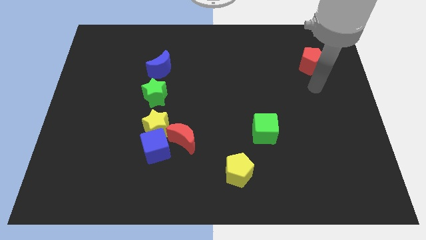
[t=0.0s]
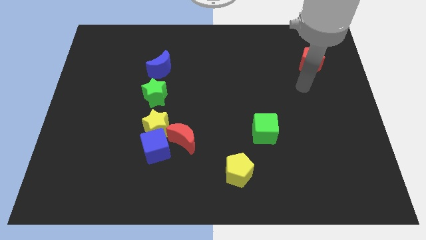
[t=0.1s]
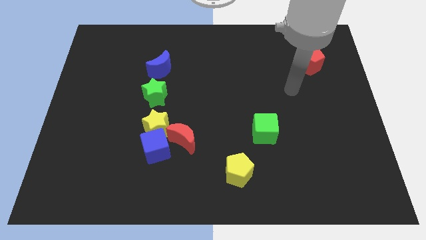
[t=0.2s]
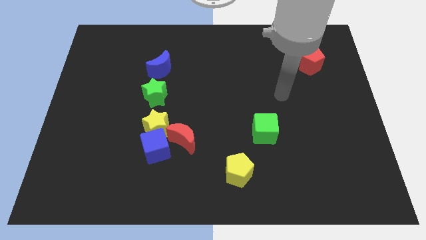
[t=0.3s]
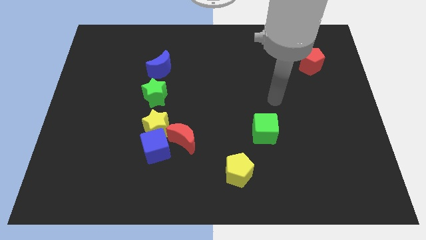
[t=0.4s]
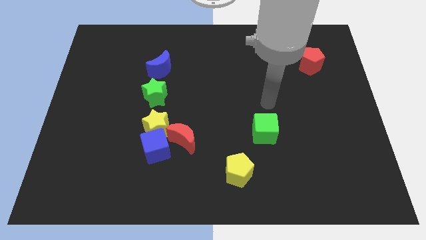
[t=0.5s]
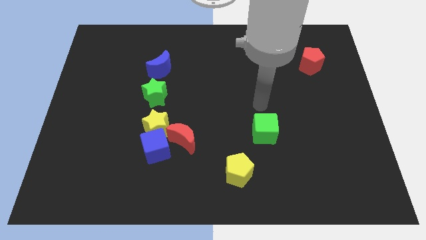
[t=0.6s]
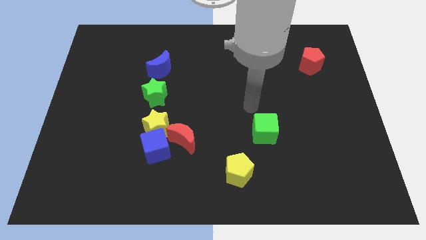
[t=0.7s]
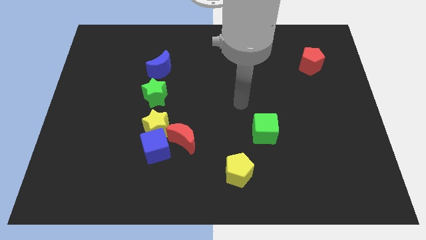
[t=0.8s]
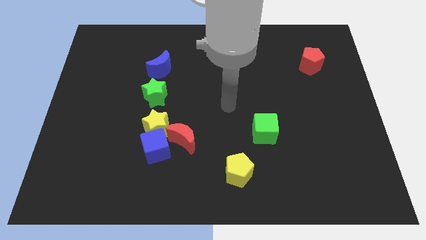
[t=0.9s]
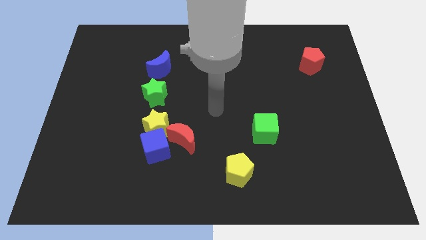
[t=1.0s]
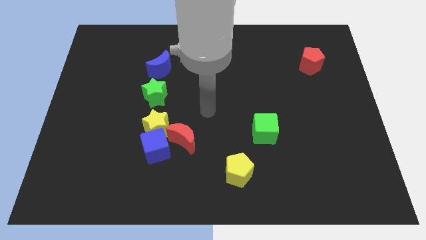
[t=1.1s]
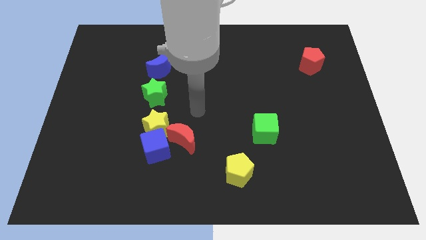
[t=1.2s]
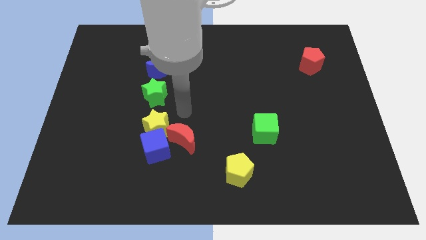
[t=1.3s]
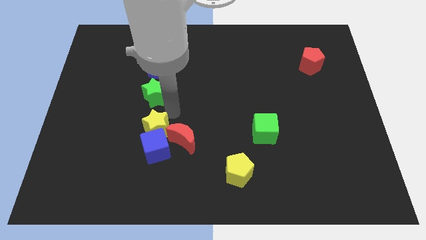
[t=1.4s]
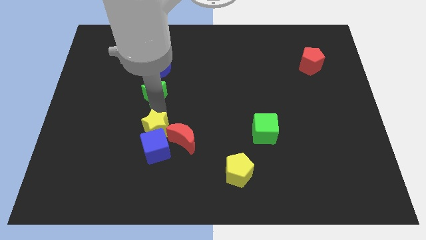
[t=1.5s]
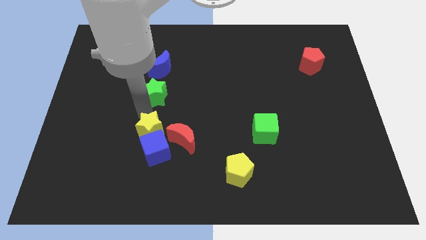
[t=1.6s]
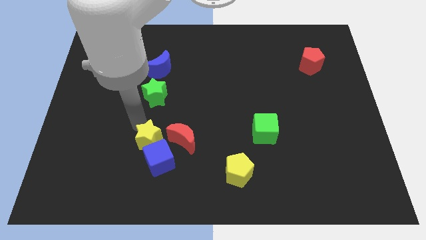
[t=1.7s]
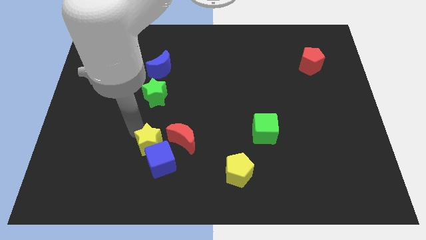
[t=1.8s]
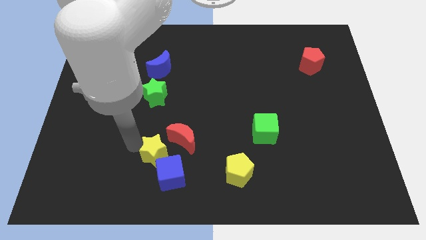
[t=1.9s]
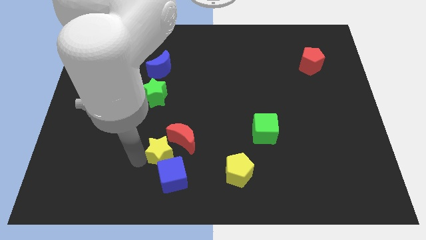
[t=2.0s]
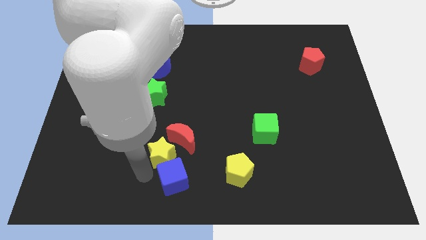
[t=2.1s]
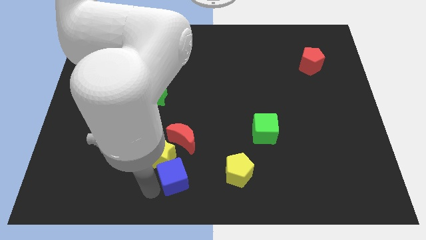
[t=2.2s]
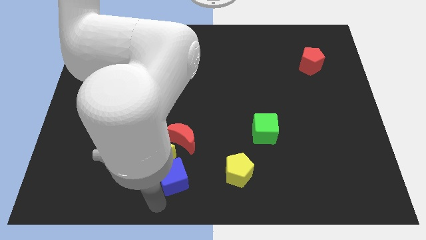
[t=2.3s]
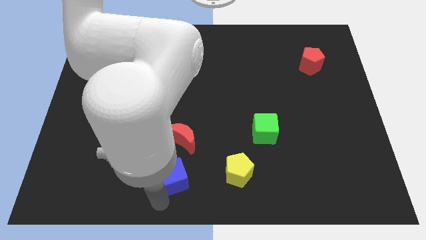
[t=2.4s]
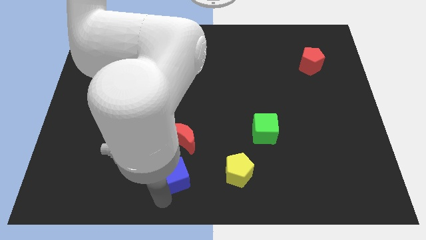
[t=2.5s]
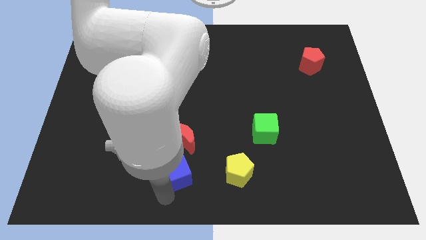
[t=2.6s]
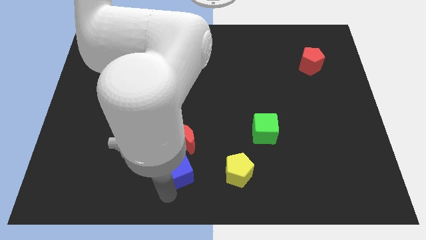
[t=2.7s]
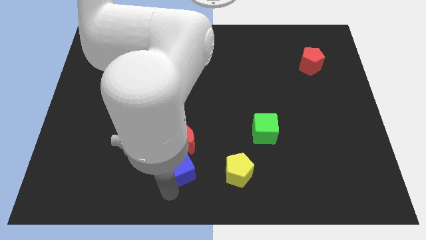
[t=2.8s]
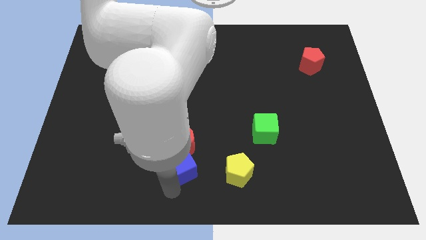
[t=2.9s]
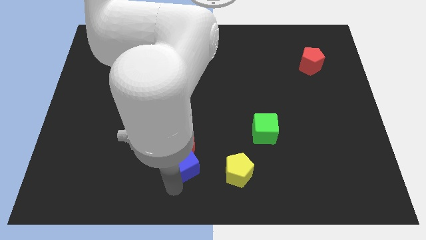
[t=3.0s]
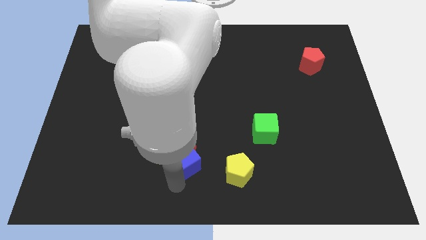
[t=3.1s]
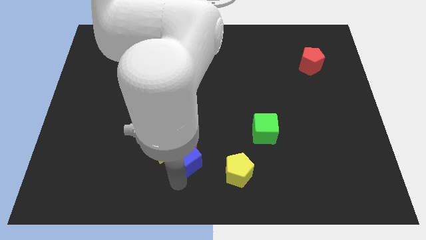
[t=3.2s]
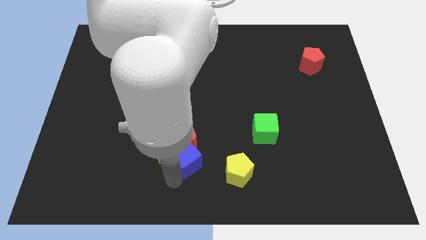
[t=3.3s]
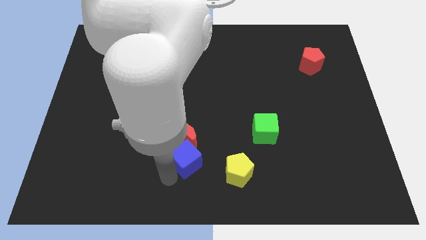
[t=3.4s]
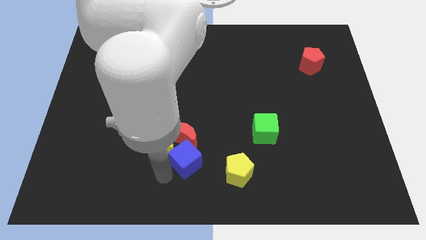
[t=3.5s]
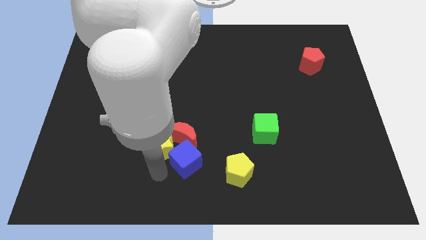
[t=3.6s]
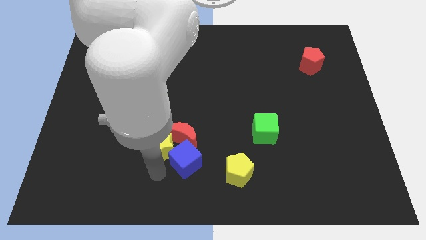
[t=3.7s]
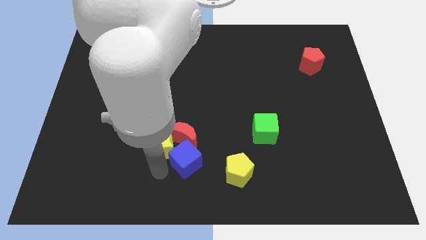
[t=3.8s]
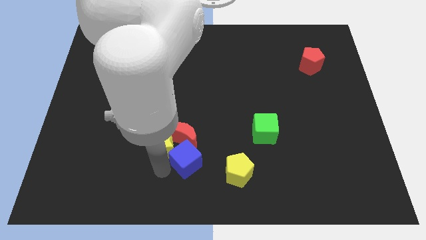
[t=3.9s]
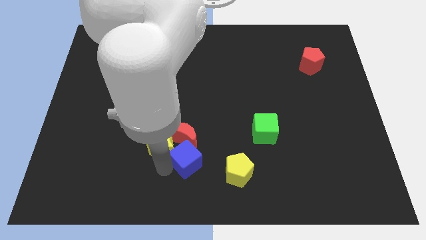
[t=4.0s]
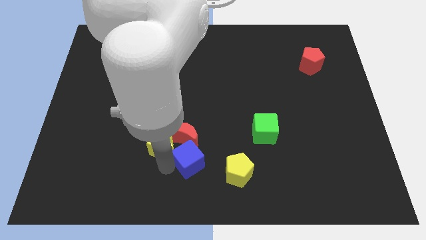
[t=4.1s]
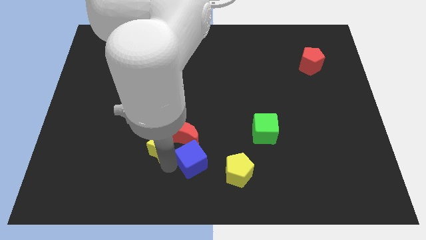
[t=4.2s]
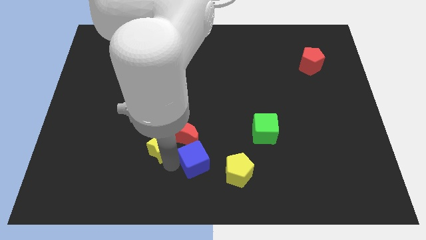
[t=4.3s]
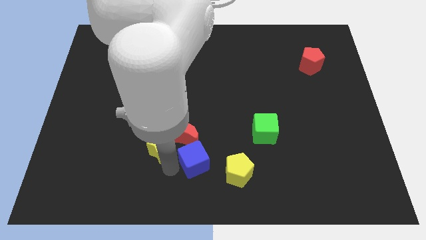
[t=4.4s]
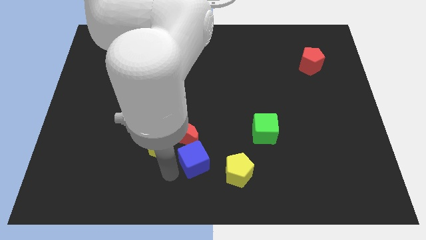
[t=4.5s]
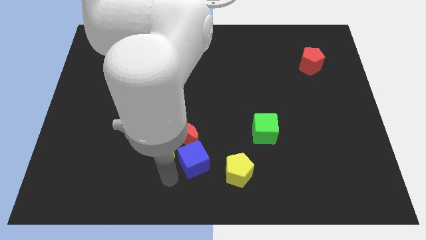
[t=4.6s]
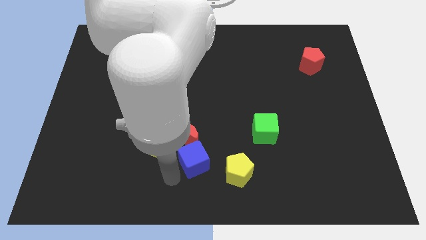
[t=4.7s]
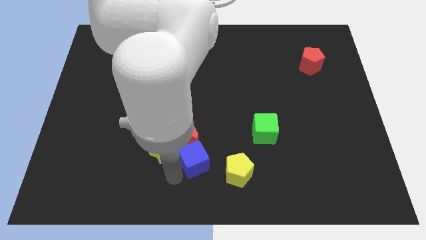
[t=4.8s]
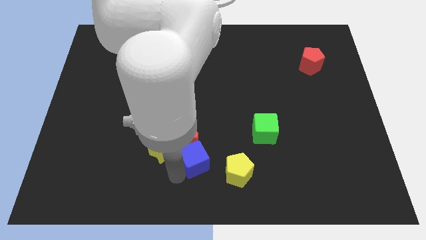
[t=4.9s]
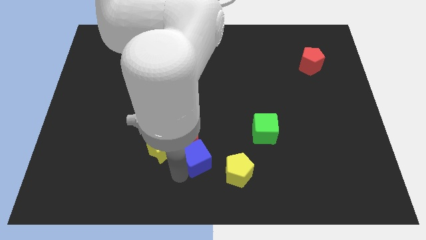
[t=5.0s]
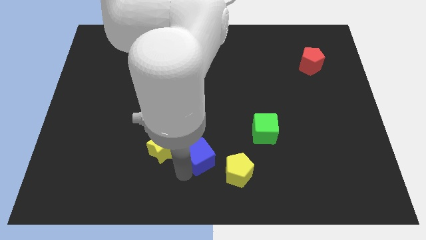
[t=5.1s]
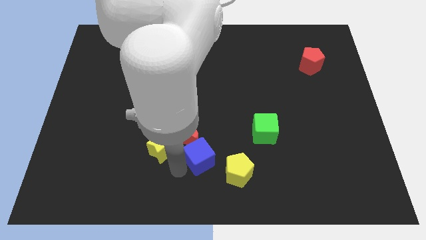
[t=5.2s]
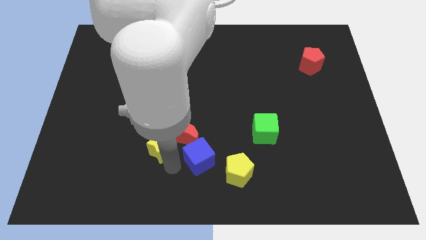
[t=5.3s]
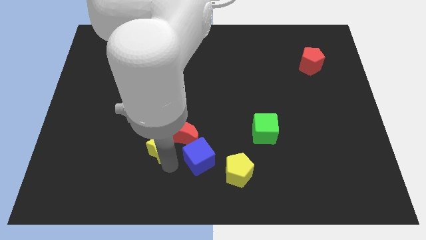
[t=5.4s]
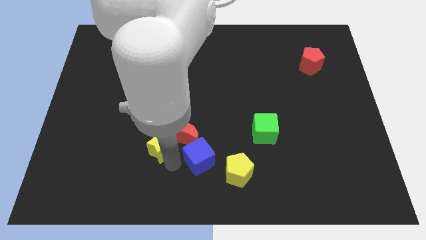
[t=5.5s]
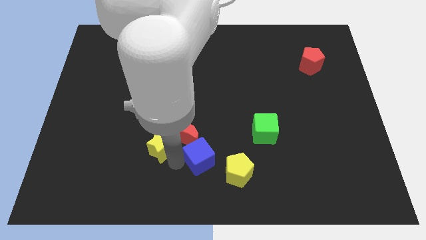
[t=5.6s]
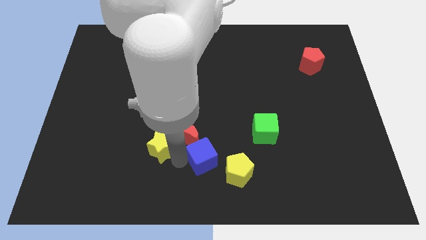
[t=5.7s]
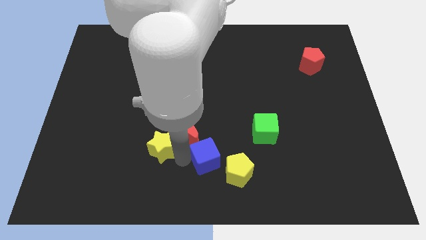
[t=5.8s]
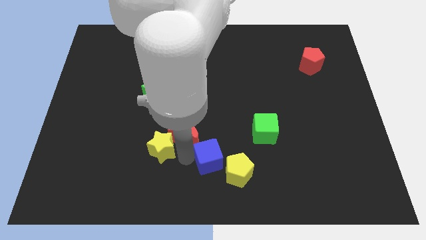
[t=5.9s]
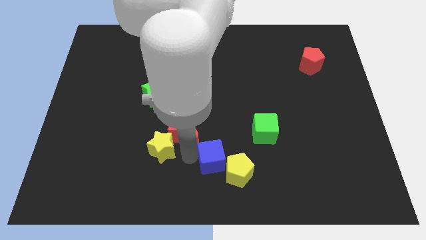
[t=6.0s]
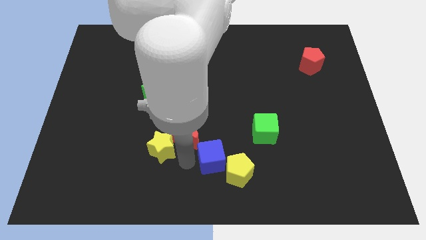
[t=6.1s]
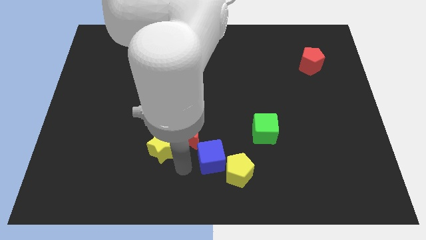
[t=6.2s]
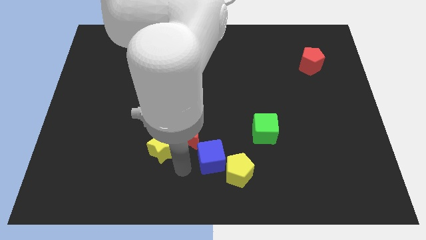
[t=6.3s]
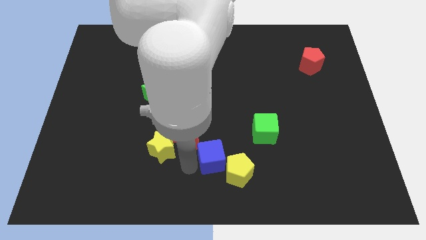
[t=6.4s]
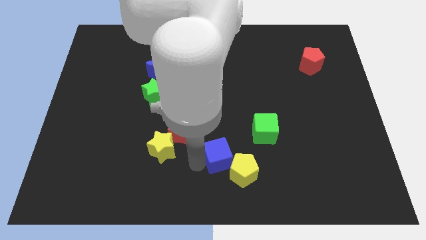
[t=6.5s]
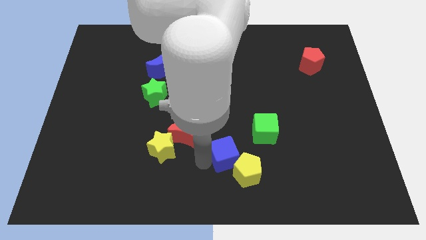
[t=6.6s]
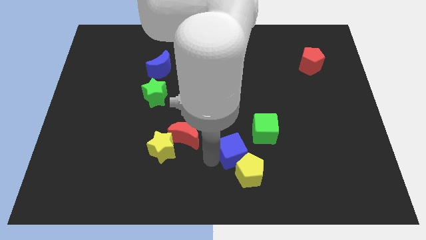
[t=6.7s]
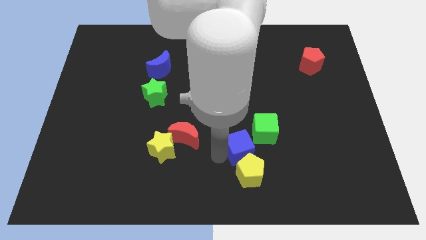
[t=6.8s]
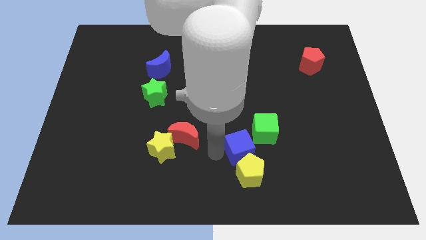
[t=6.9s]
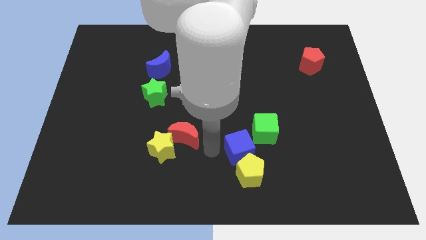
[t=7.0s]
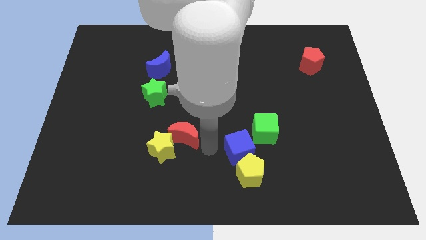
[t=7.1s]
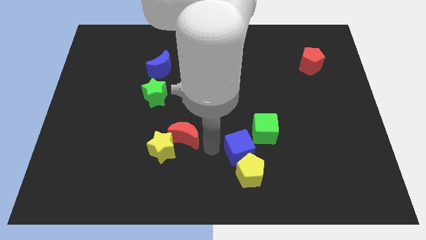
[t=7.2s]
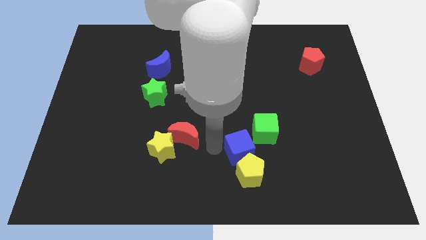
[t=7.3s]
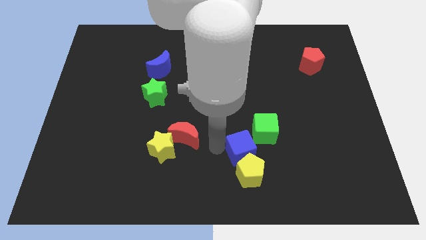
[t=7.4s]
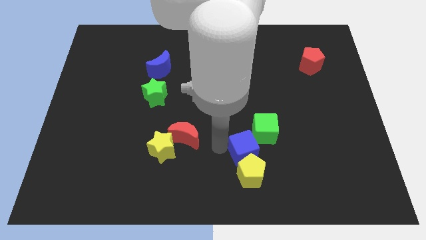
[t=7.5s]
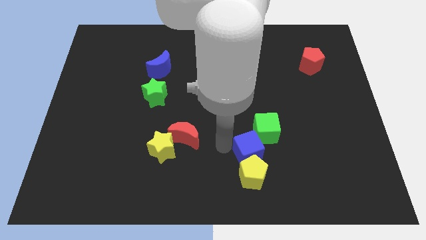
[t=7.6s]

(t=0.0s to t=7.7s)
move the blue cube to the right

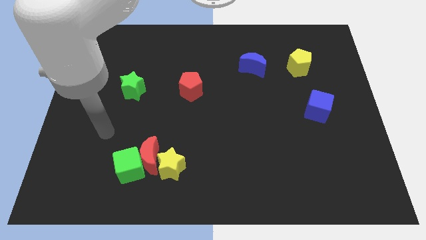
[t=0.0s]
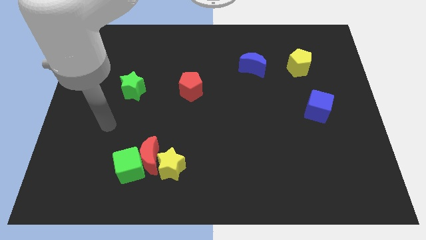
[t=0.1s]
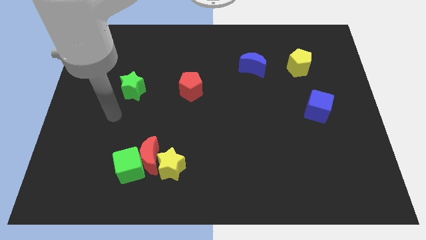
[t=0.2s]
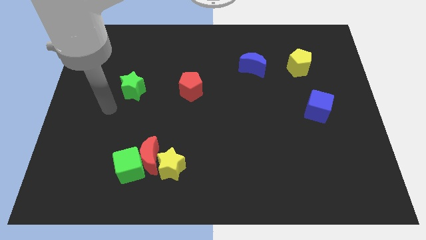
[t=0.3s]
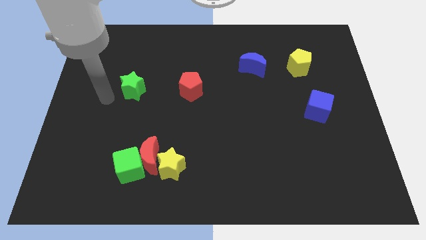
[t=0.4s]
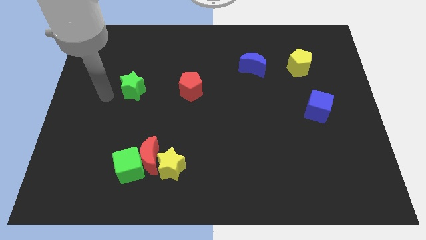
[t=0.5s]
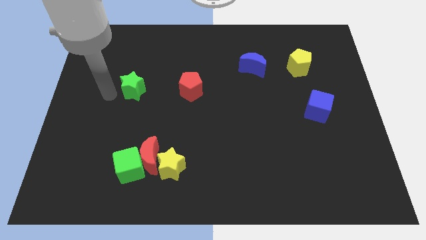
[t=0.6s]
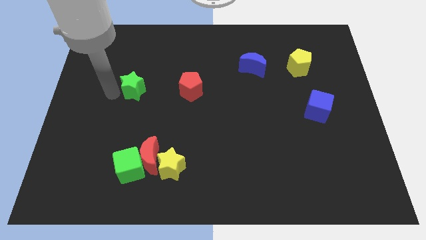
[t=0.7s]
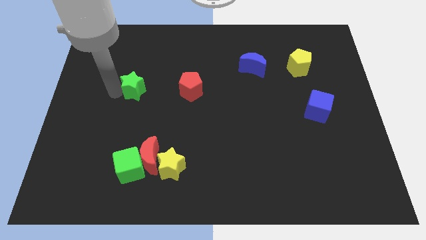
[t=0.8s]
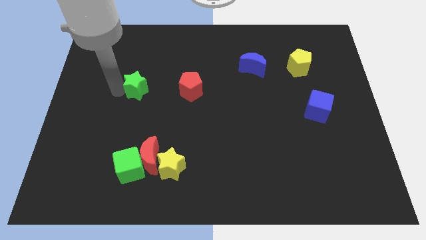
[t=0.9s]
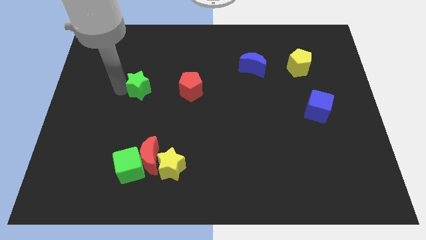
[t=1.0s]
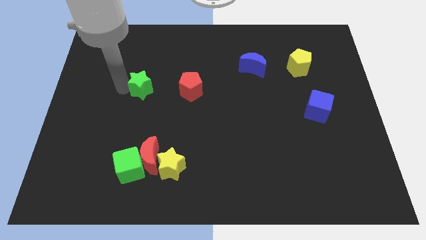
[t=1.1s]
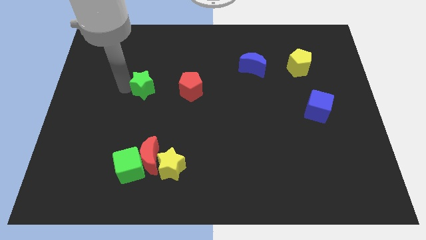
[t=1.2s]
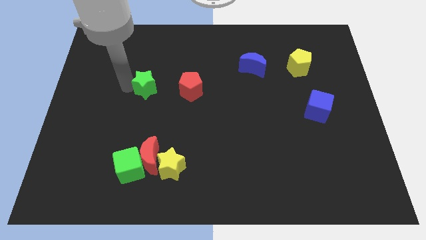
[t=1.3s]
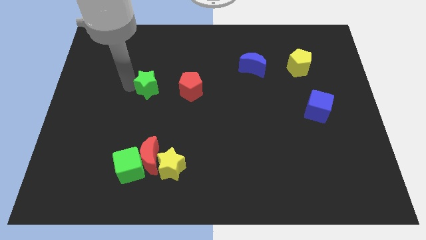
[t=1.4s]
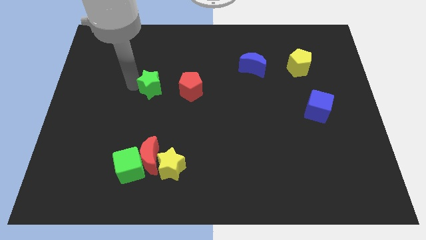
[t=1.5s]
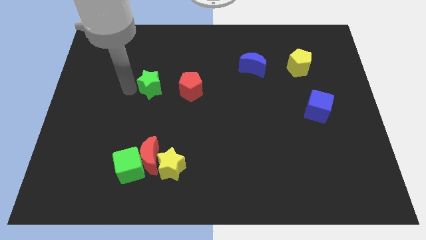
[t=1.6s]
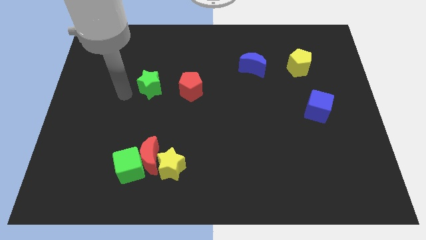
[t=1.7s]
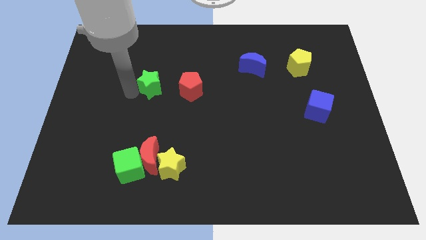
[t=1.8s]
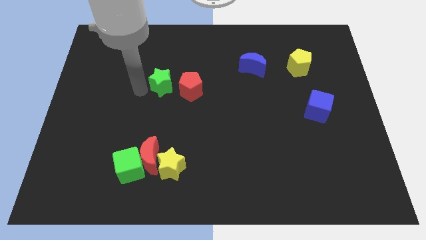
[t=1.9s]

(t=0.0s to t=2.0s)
push the green star to the right slightly
